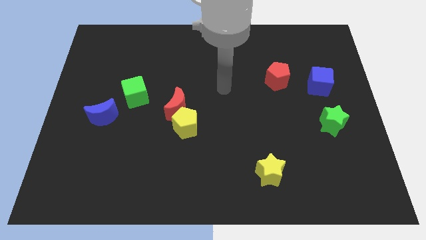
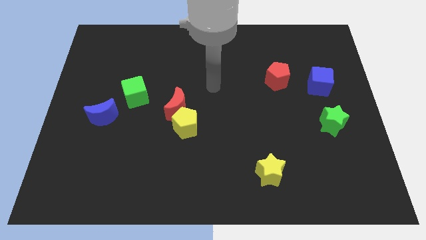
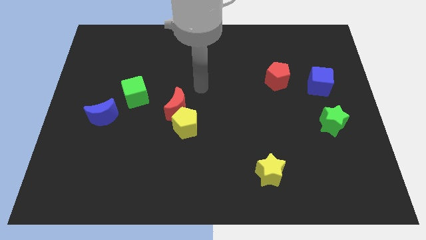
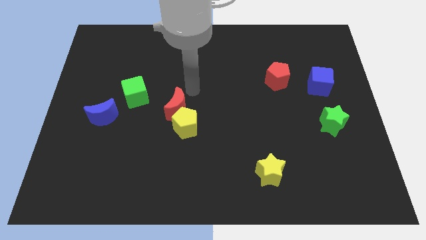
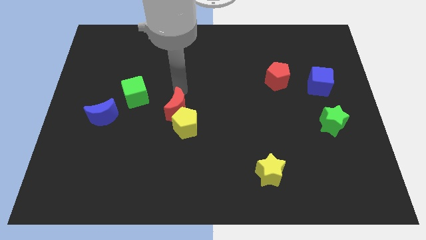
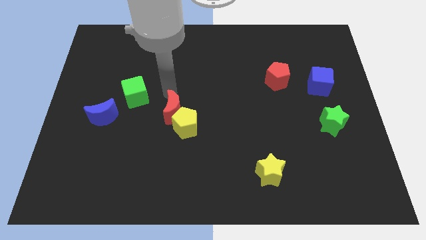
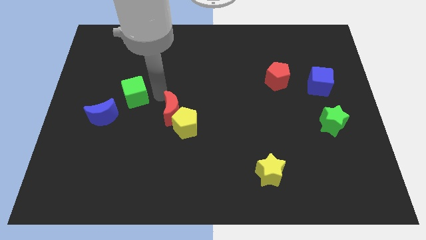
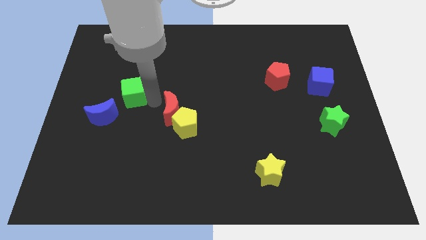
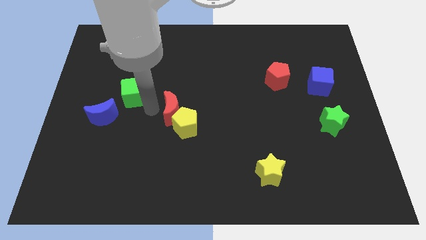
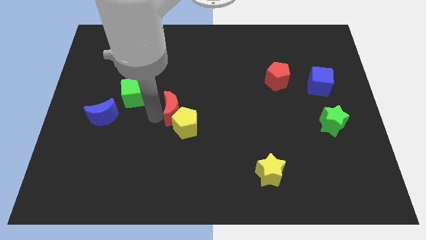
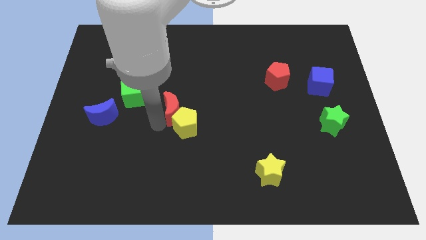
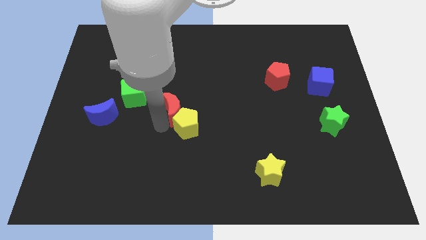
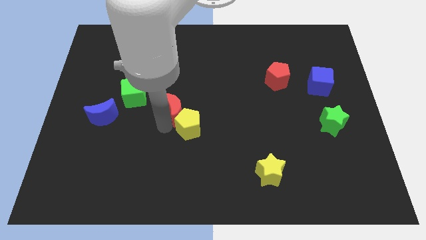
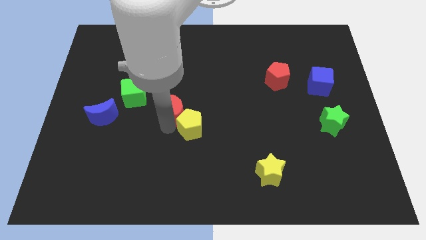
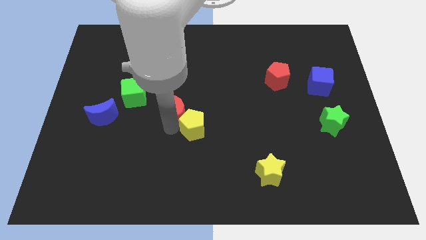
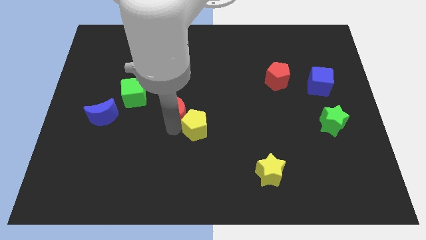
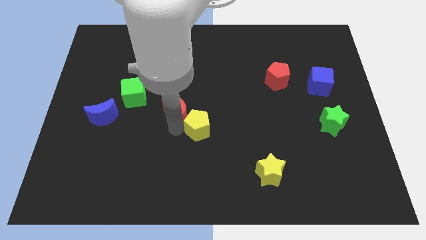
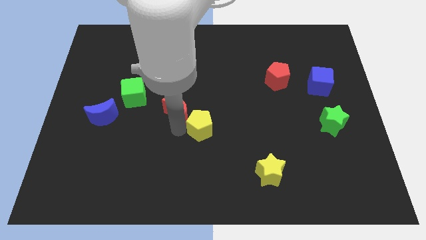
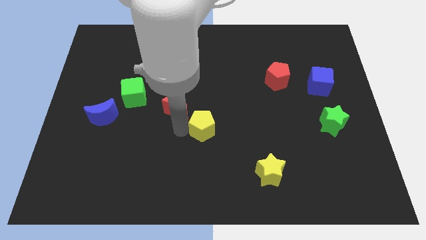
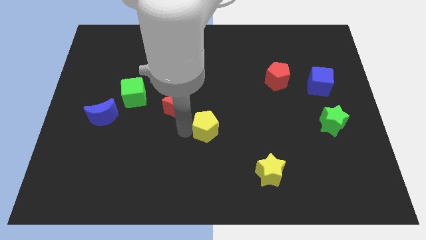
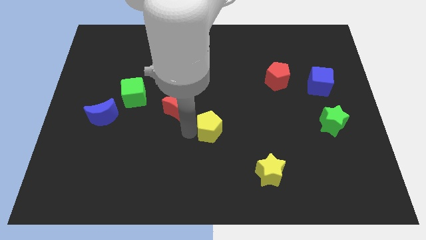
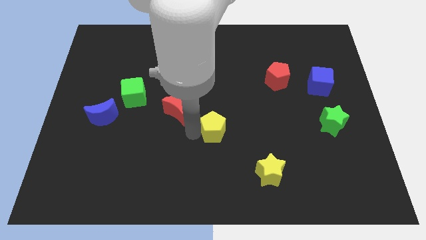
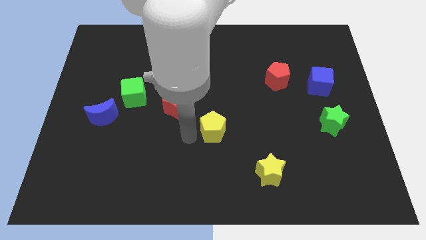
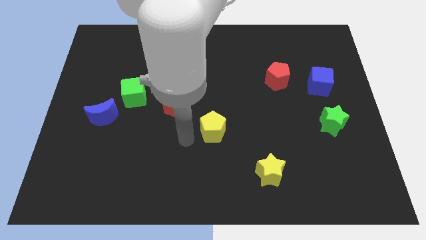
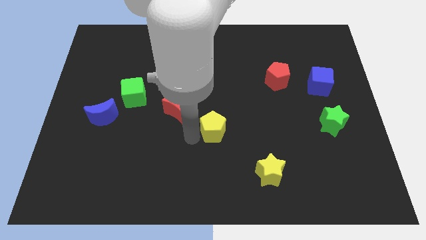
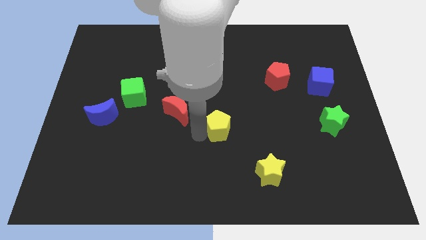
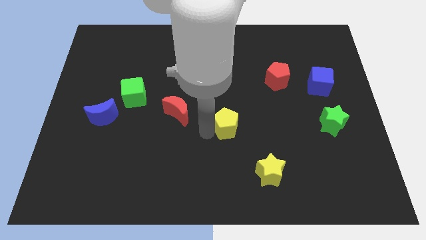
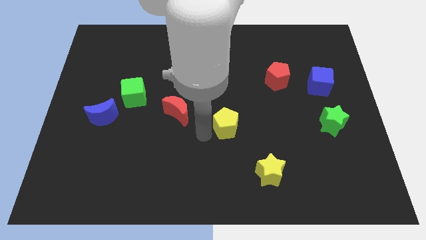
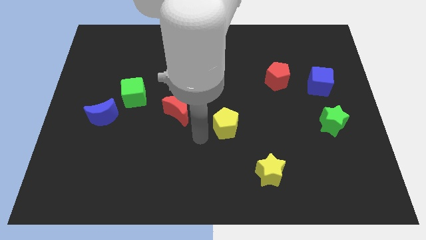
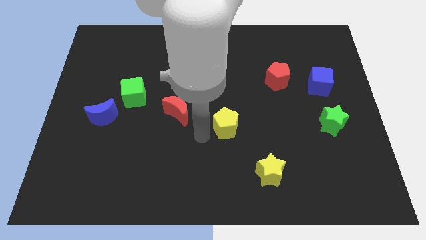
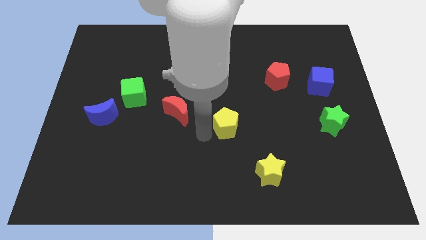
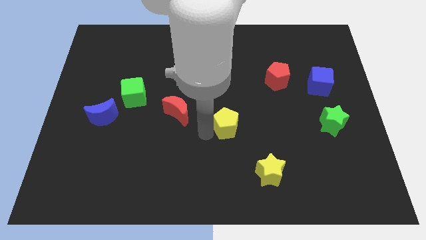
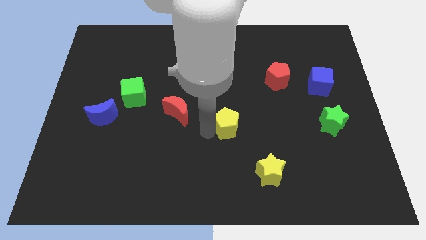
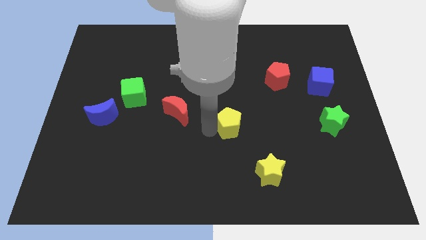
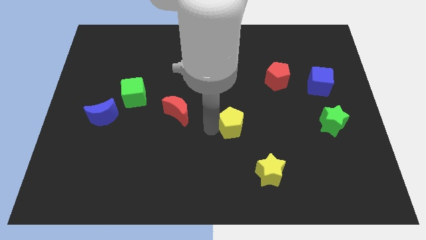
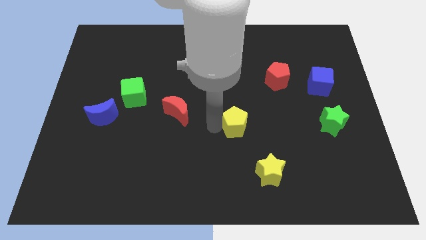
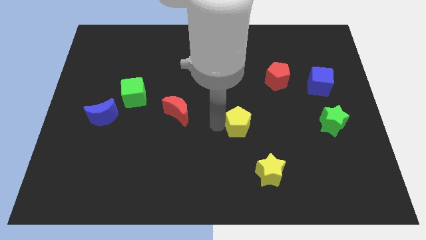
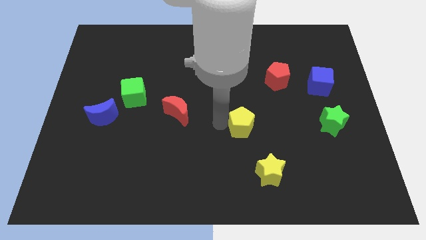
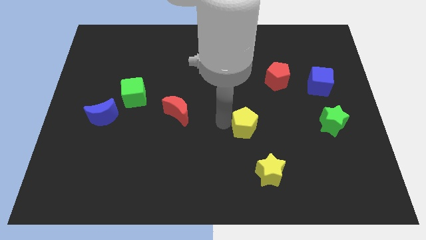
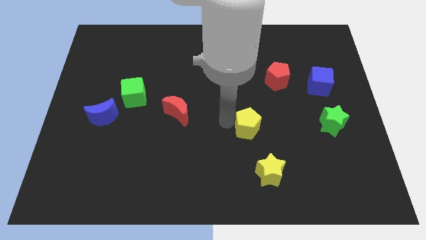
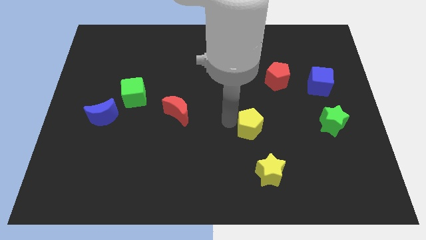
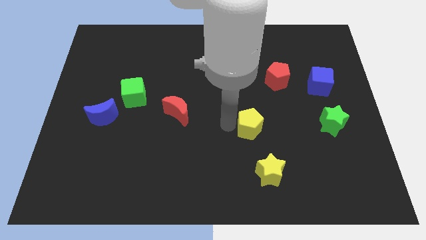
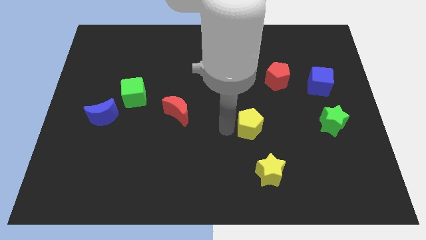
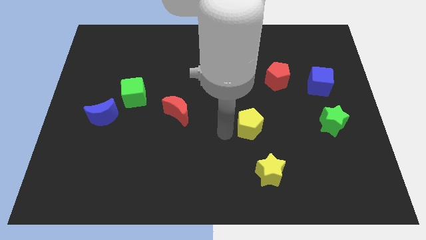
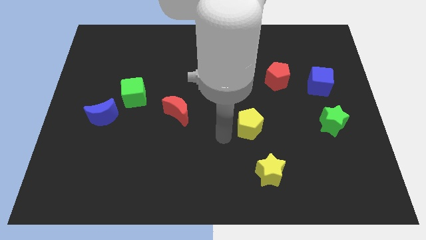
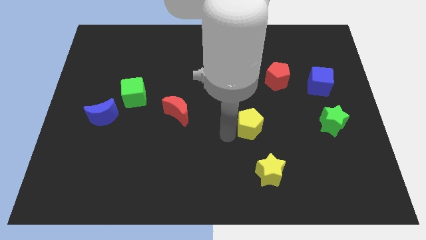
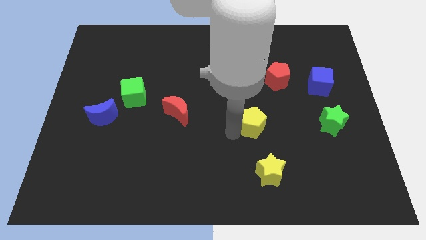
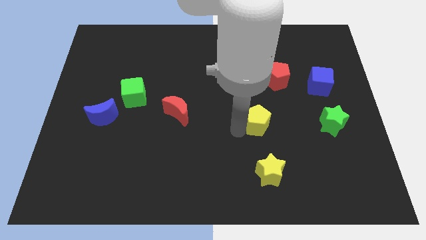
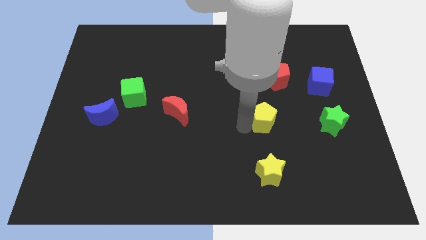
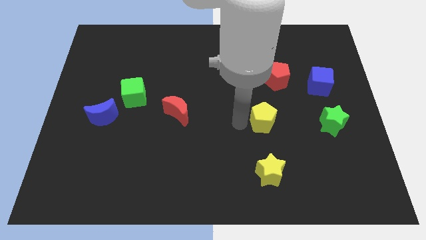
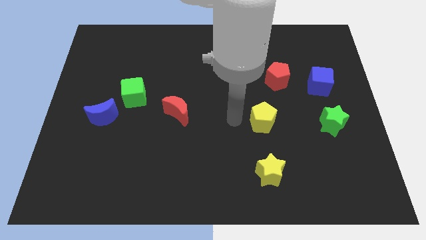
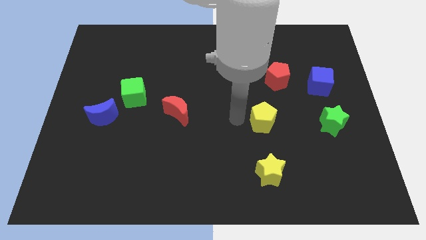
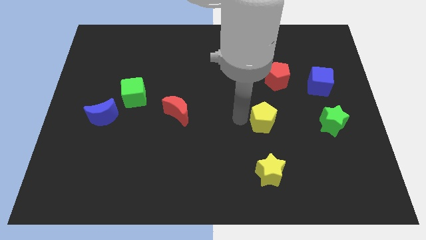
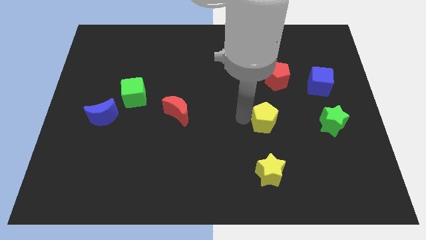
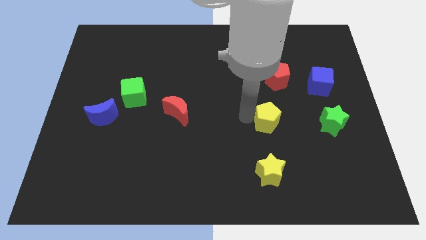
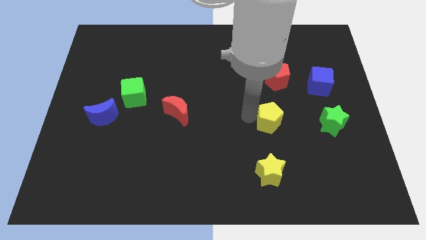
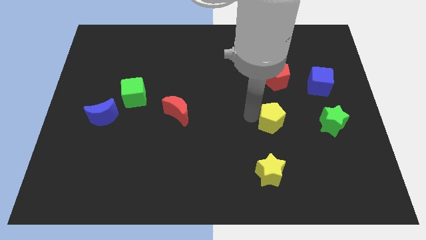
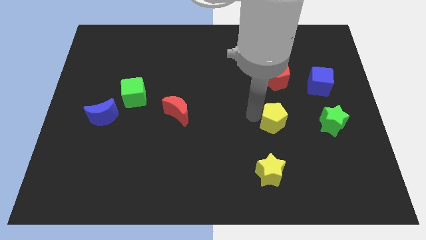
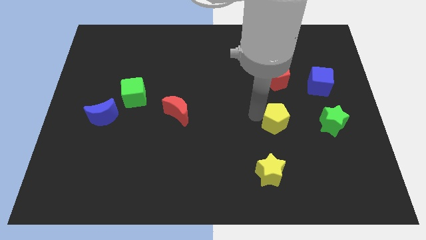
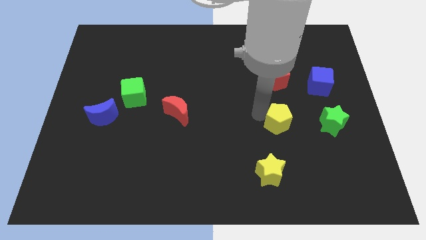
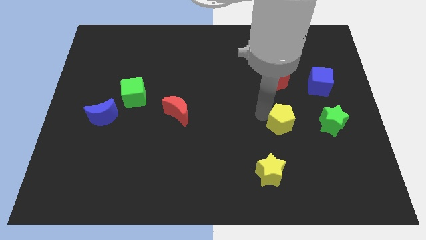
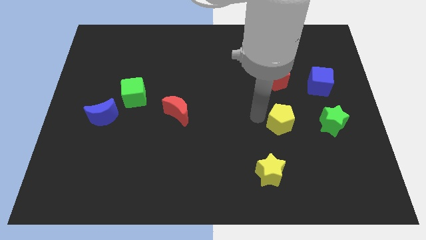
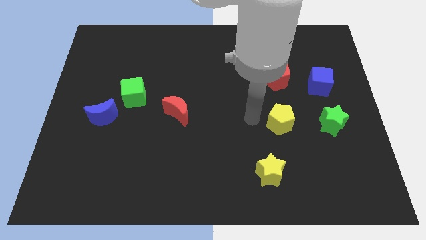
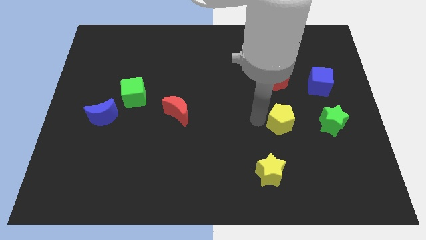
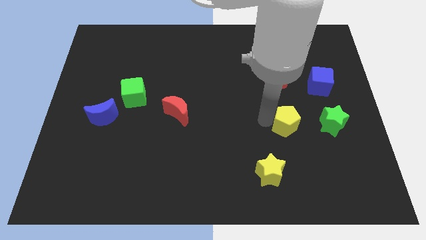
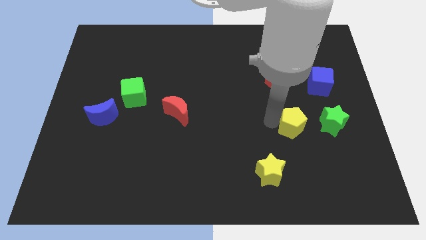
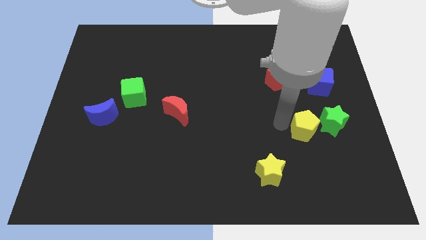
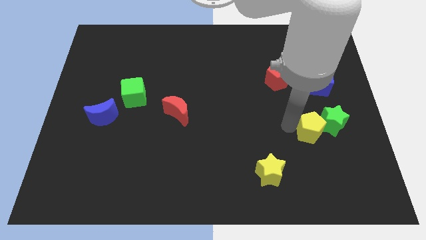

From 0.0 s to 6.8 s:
move the yellow pentagon next to the green star
